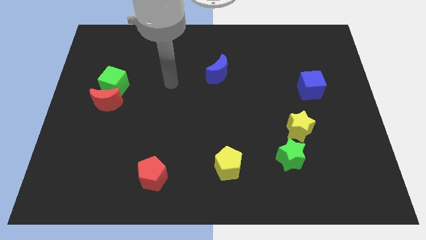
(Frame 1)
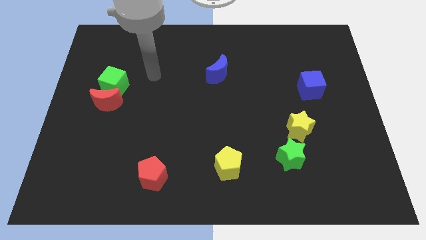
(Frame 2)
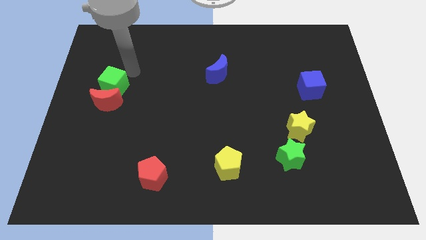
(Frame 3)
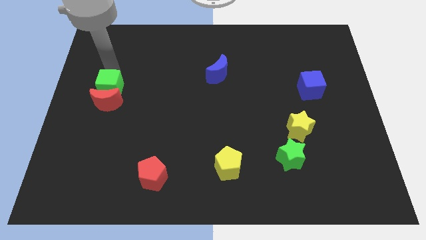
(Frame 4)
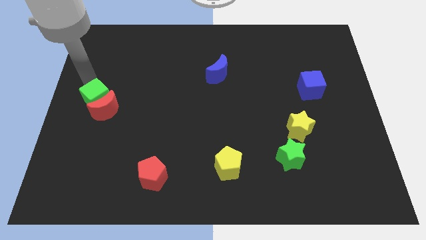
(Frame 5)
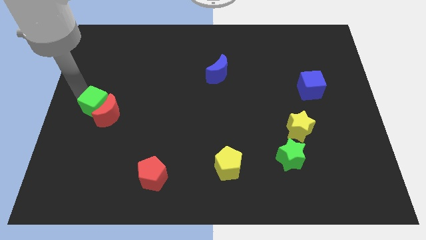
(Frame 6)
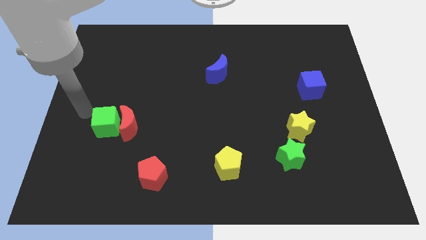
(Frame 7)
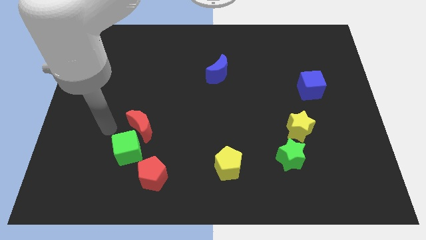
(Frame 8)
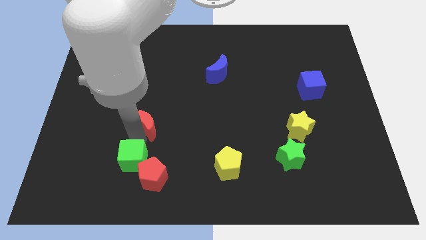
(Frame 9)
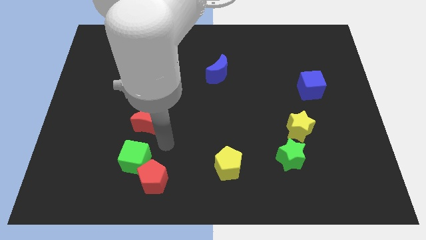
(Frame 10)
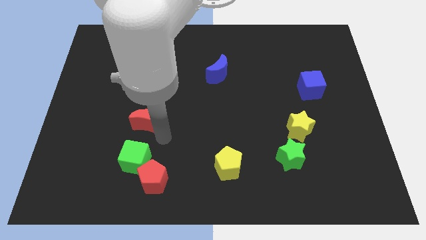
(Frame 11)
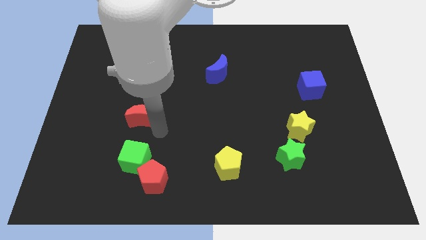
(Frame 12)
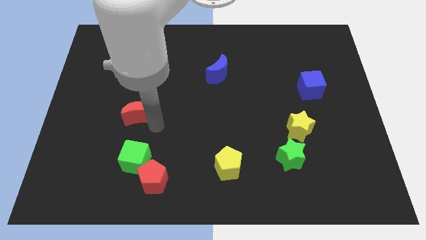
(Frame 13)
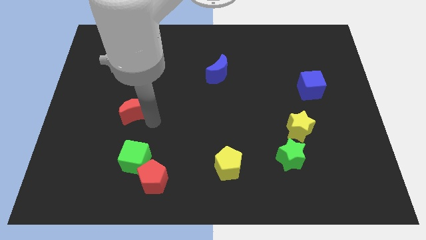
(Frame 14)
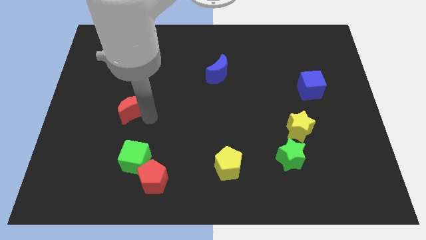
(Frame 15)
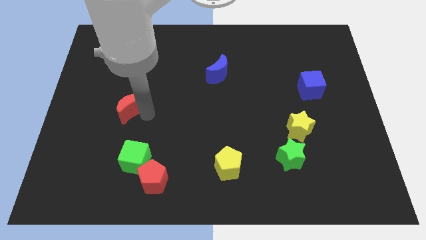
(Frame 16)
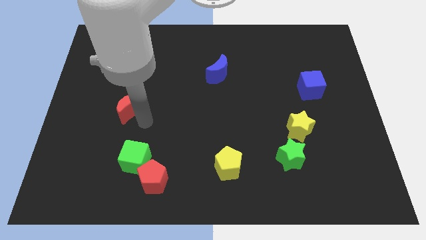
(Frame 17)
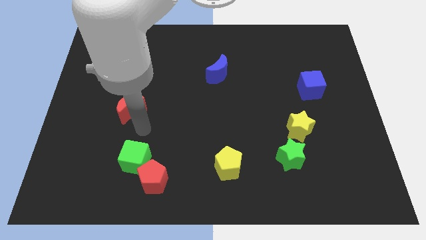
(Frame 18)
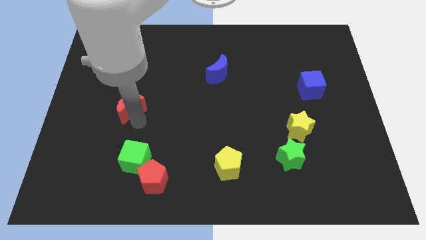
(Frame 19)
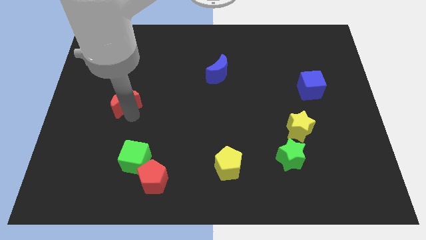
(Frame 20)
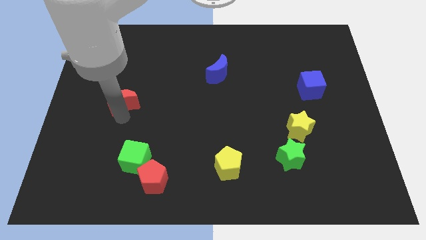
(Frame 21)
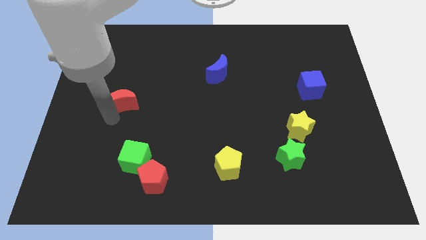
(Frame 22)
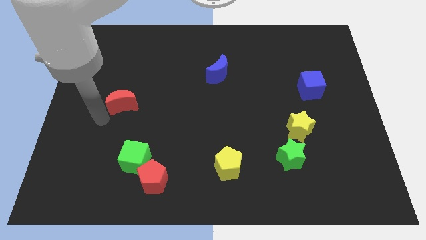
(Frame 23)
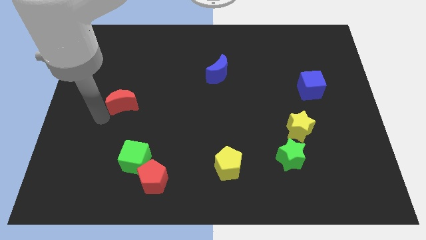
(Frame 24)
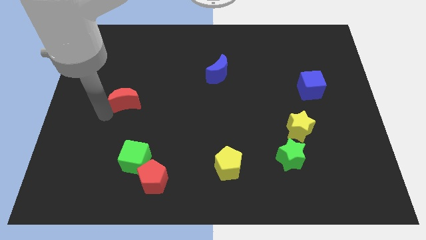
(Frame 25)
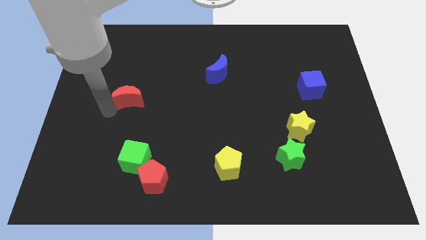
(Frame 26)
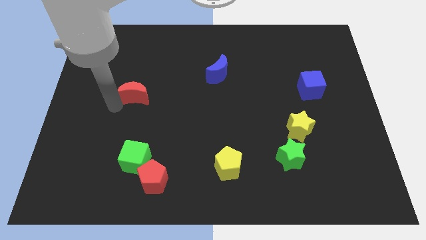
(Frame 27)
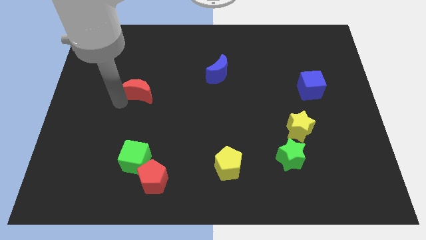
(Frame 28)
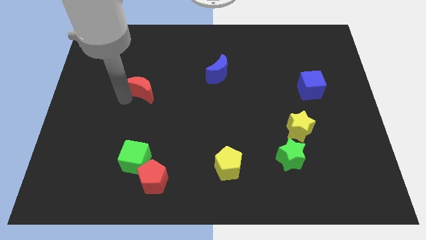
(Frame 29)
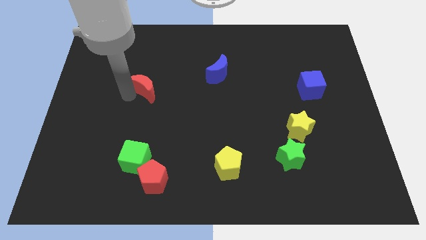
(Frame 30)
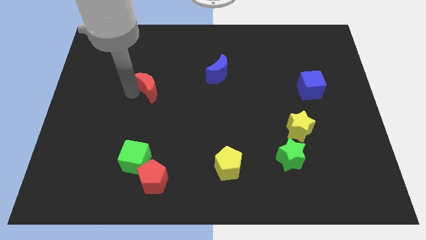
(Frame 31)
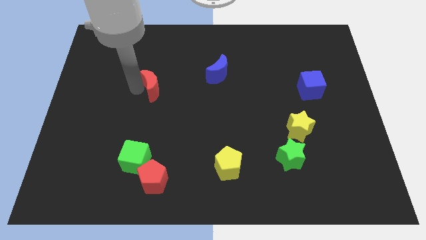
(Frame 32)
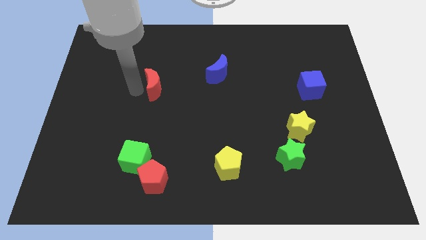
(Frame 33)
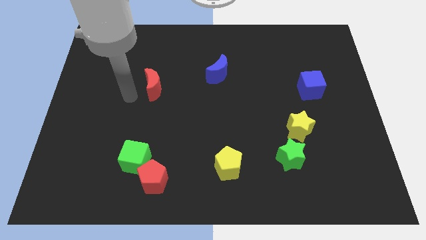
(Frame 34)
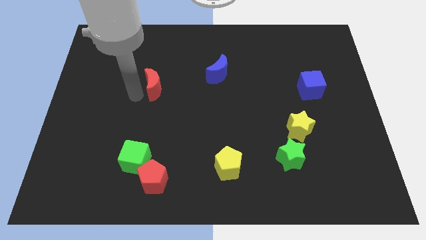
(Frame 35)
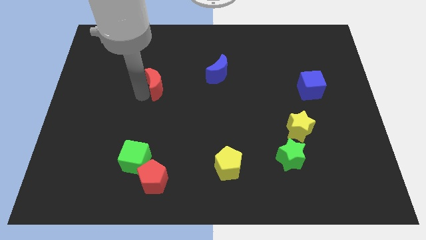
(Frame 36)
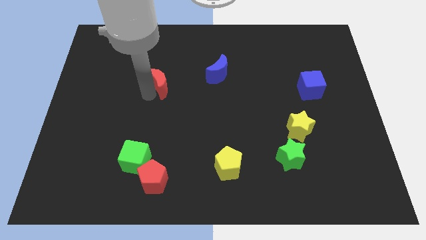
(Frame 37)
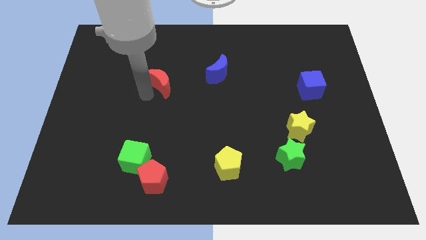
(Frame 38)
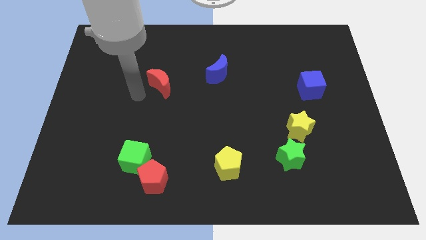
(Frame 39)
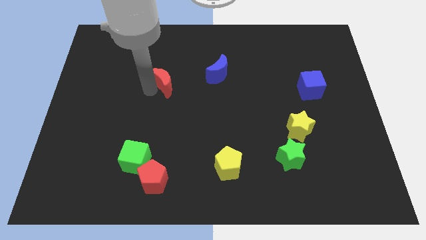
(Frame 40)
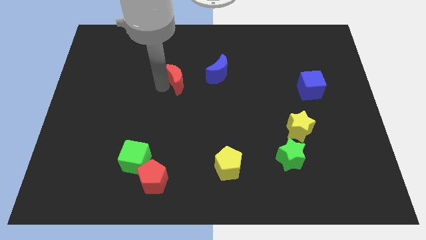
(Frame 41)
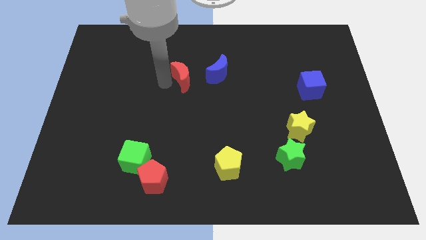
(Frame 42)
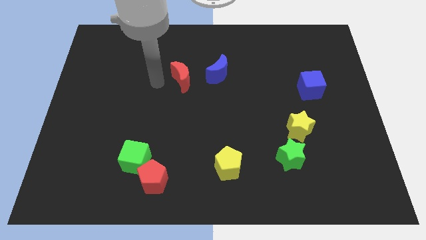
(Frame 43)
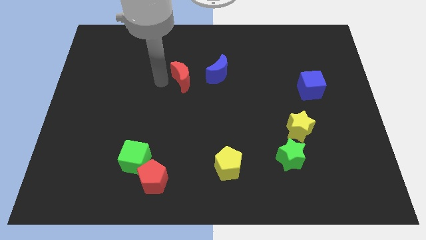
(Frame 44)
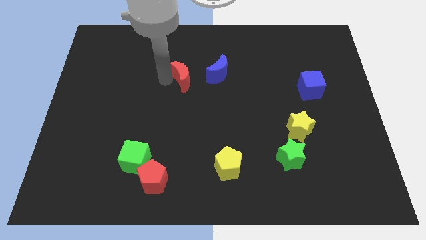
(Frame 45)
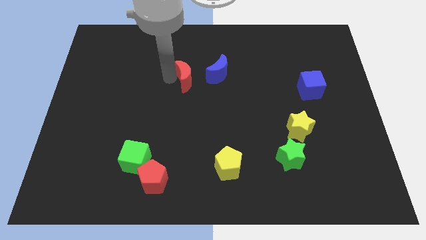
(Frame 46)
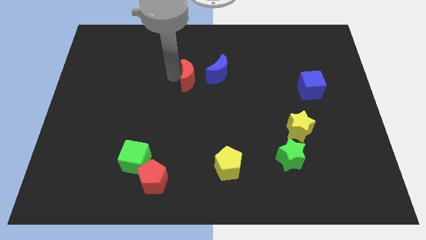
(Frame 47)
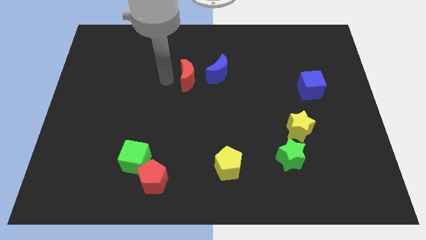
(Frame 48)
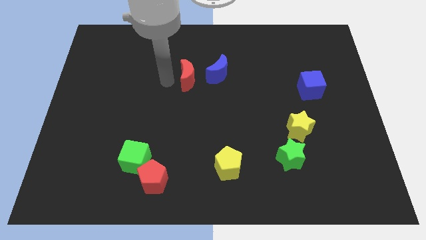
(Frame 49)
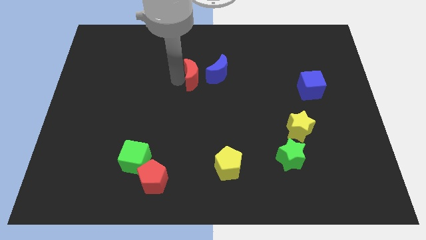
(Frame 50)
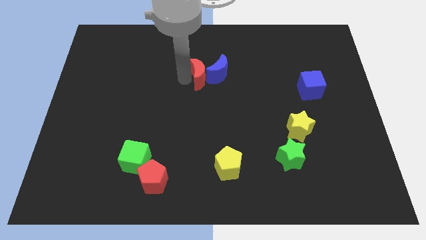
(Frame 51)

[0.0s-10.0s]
put the red moon close to the blue moon

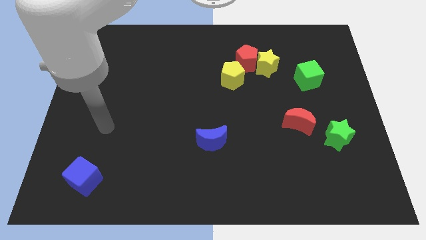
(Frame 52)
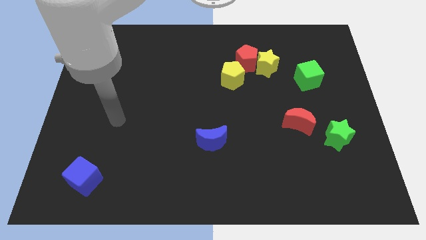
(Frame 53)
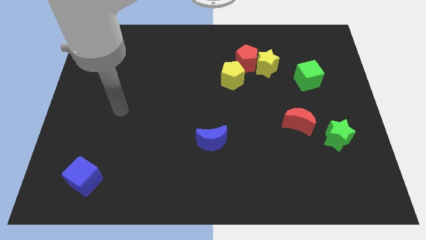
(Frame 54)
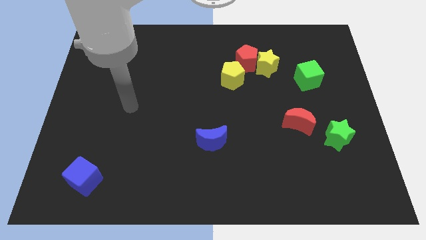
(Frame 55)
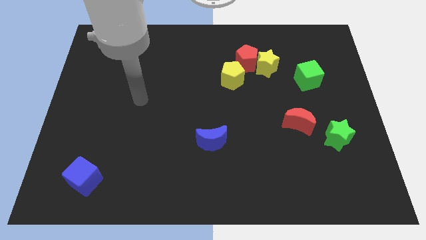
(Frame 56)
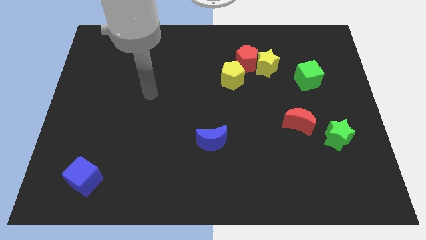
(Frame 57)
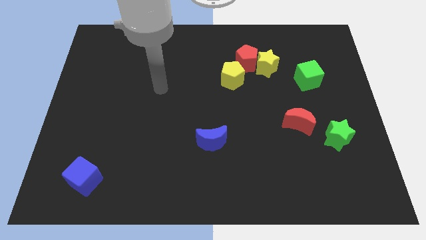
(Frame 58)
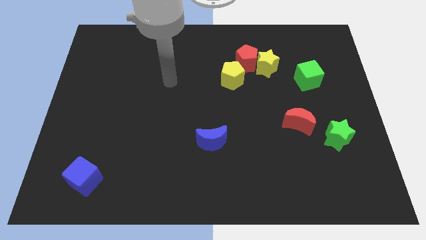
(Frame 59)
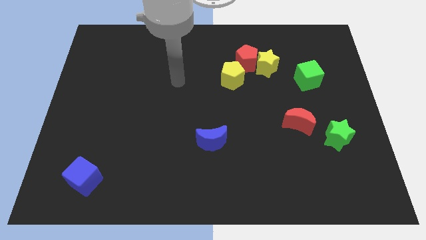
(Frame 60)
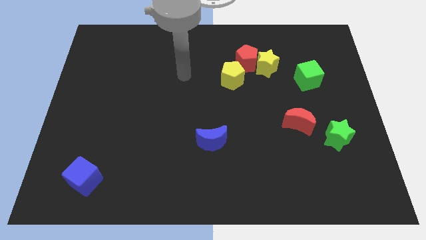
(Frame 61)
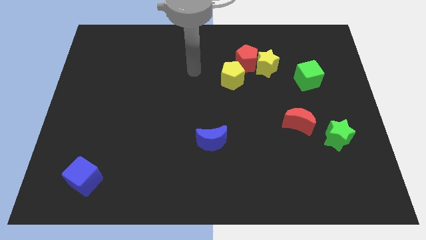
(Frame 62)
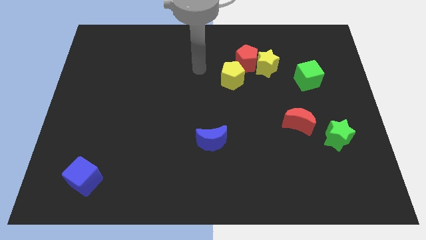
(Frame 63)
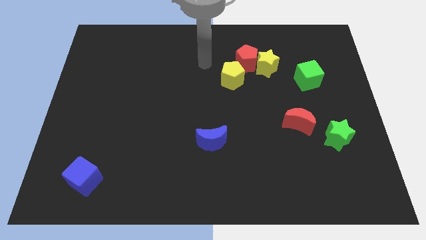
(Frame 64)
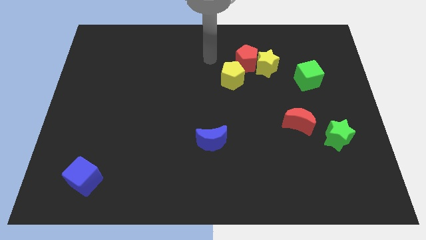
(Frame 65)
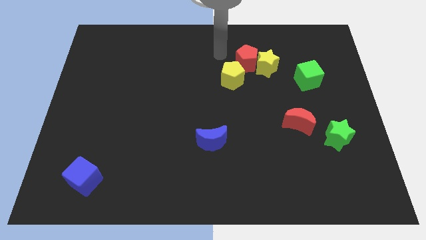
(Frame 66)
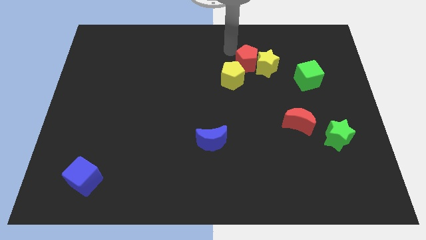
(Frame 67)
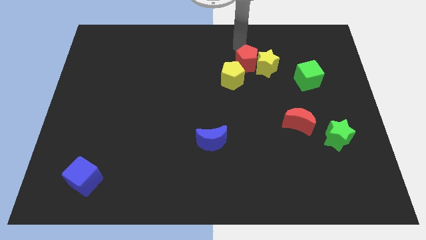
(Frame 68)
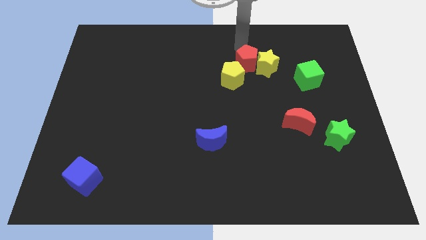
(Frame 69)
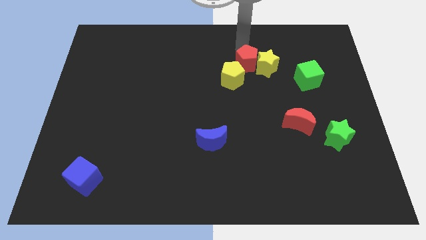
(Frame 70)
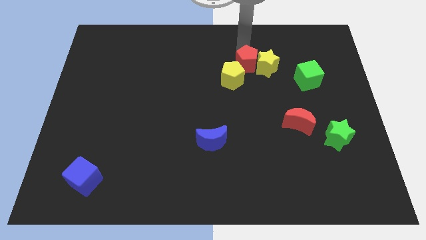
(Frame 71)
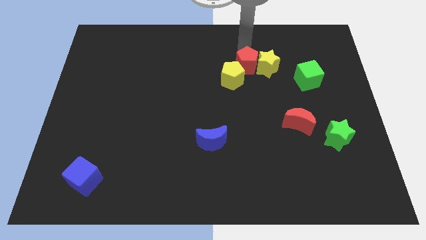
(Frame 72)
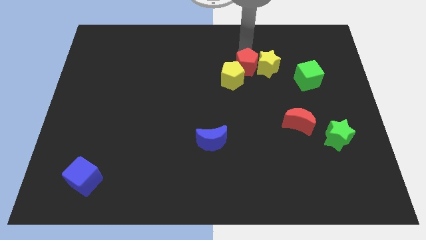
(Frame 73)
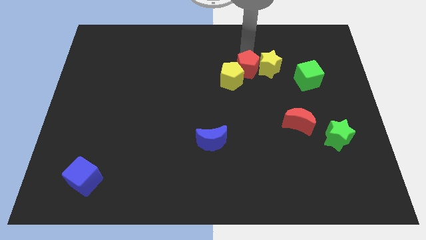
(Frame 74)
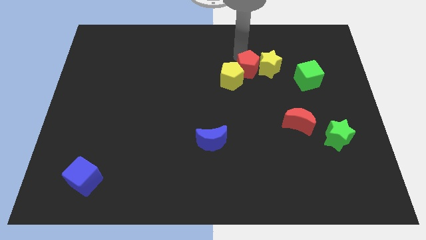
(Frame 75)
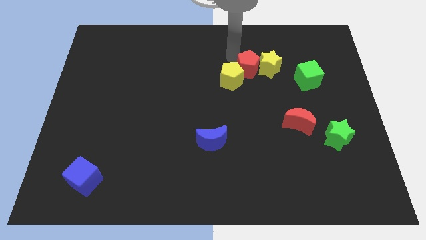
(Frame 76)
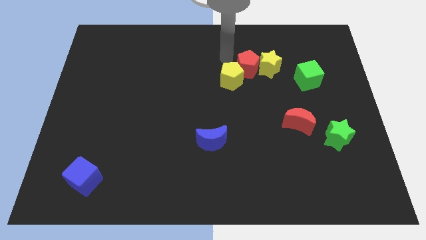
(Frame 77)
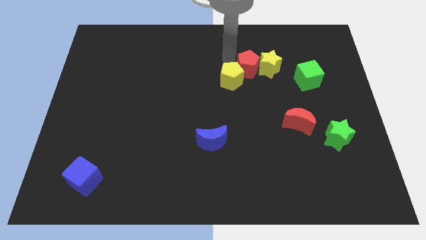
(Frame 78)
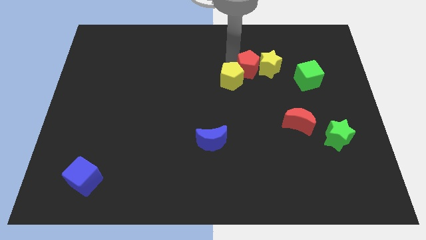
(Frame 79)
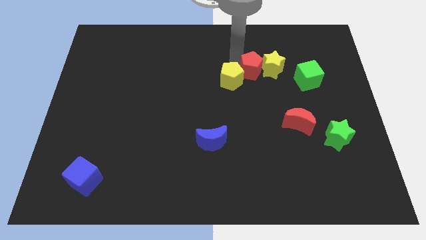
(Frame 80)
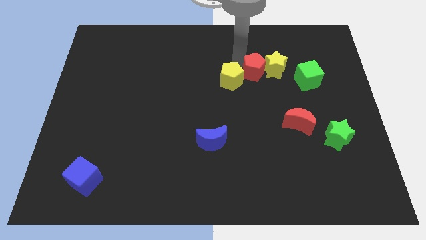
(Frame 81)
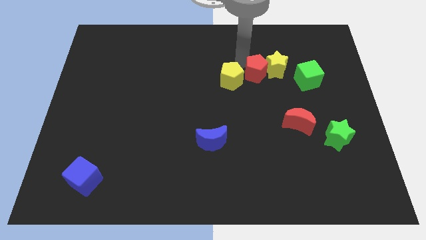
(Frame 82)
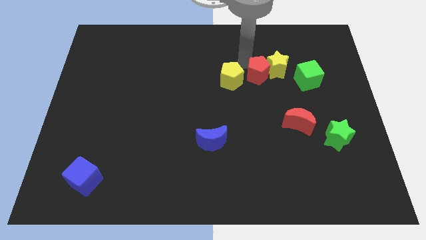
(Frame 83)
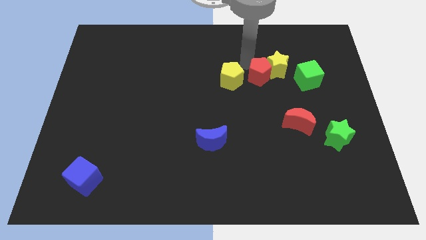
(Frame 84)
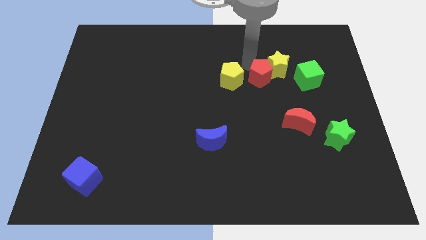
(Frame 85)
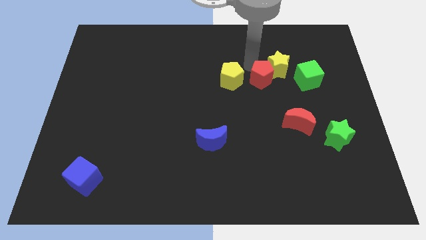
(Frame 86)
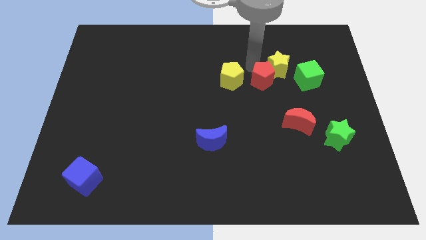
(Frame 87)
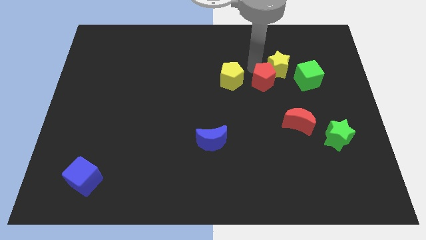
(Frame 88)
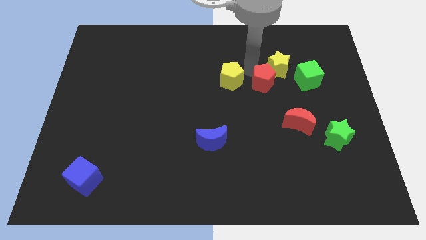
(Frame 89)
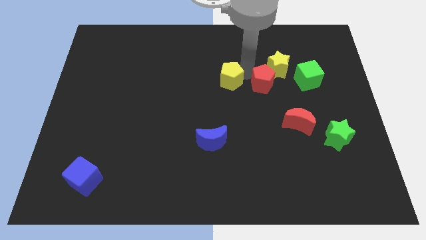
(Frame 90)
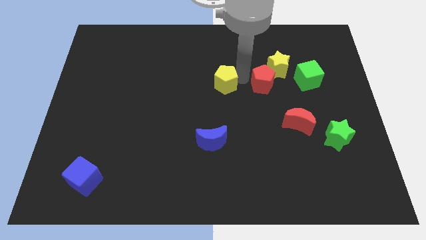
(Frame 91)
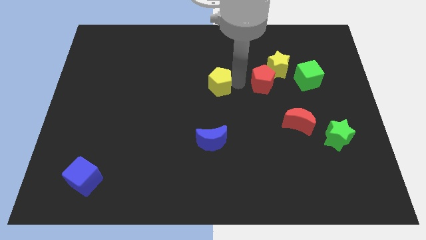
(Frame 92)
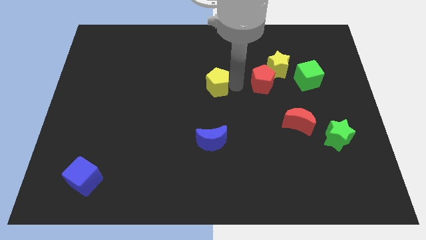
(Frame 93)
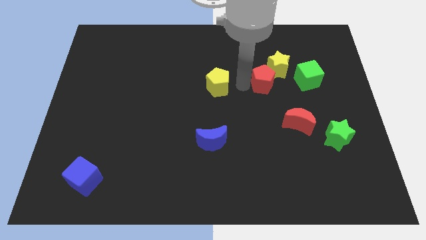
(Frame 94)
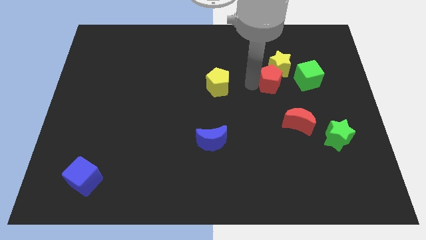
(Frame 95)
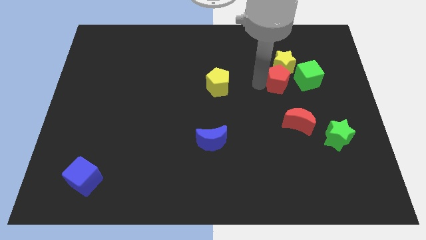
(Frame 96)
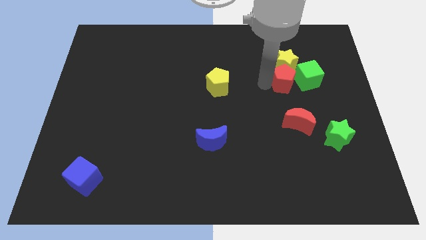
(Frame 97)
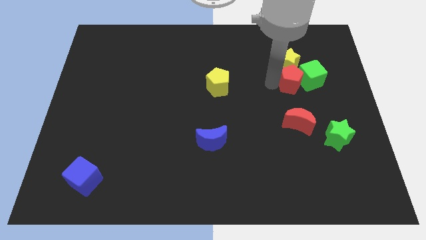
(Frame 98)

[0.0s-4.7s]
move the red pentagon next to the green cube
